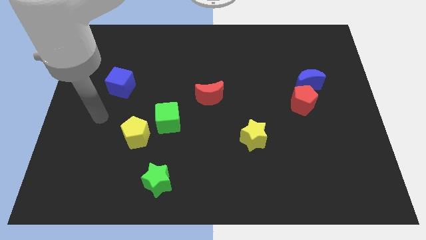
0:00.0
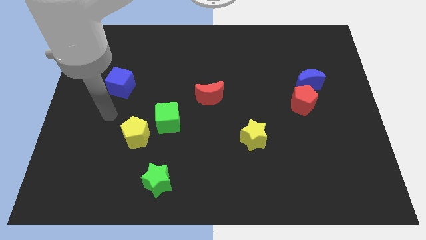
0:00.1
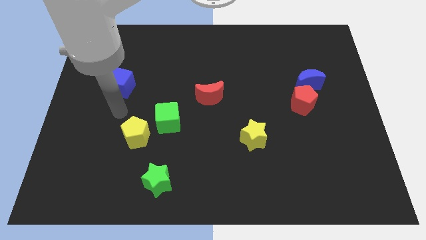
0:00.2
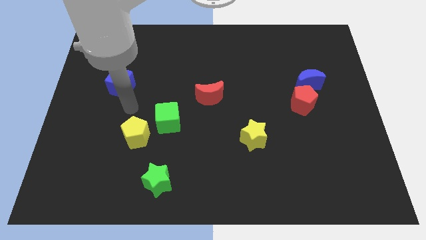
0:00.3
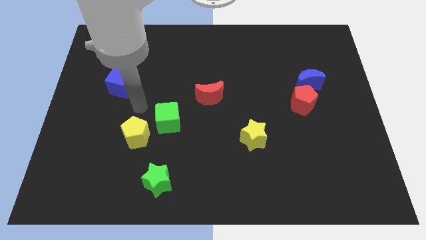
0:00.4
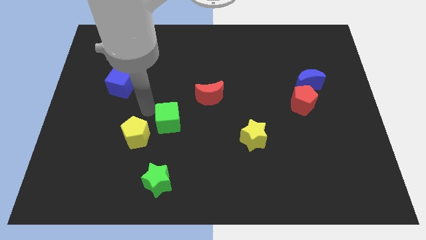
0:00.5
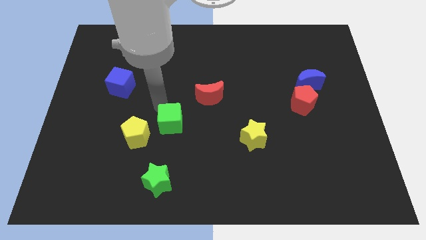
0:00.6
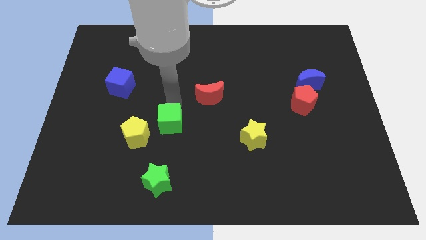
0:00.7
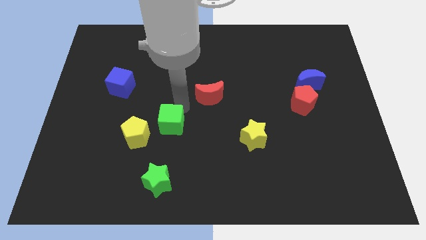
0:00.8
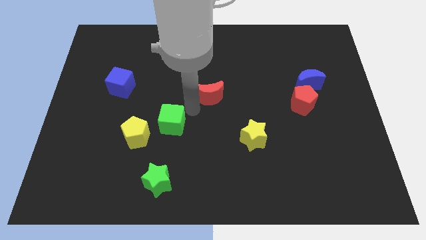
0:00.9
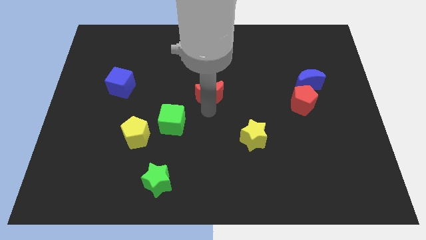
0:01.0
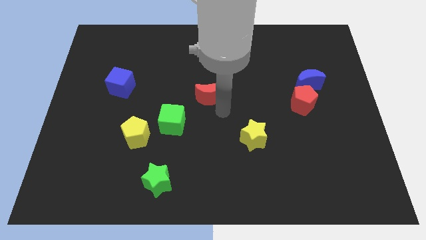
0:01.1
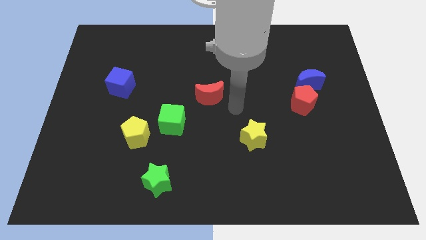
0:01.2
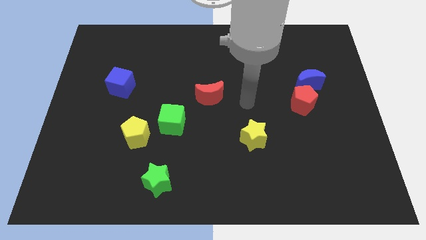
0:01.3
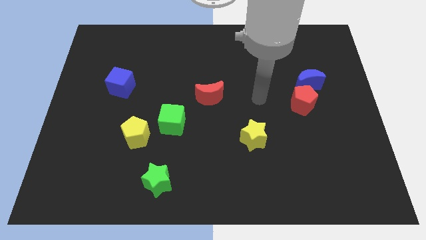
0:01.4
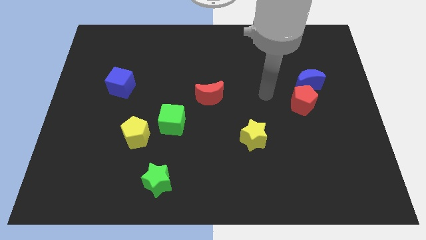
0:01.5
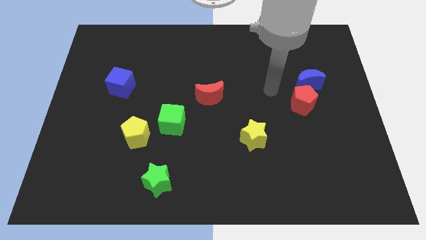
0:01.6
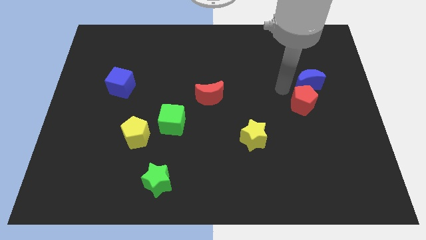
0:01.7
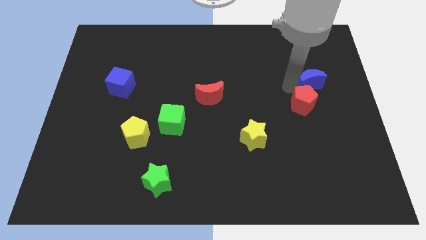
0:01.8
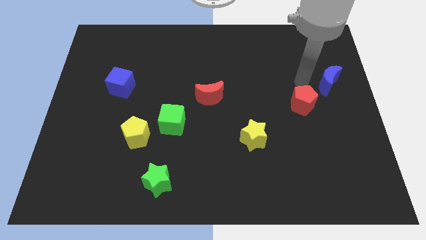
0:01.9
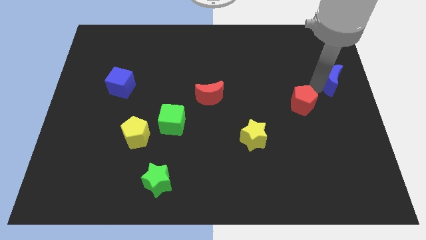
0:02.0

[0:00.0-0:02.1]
pull the red pentagon apart from the blue moon

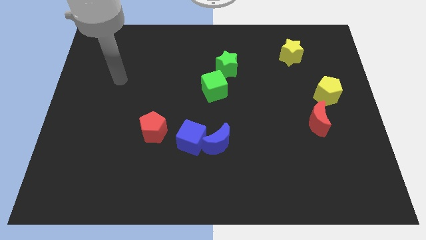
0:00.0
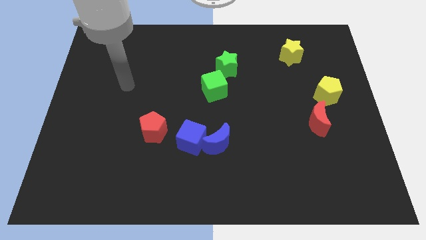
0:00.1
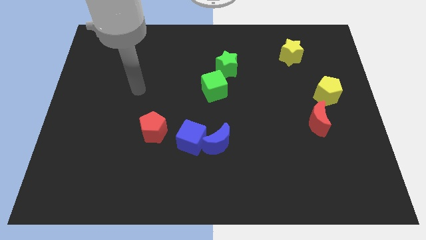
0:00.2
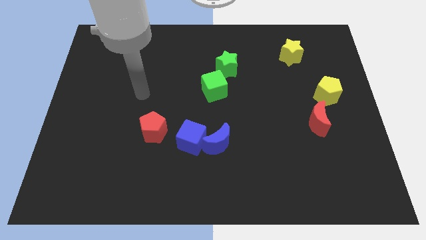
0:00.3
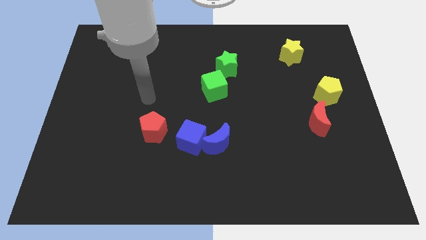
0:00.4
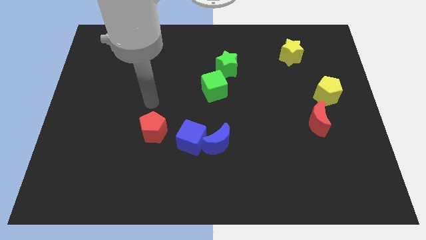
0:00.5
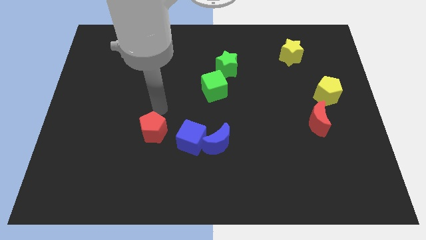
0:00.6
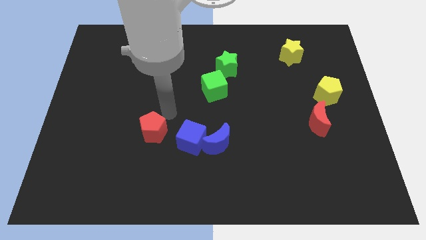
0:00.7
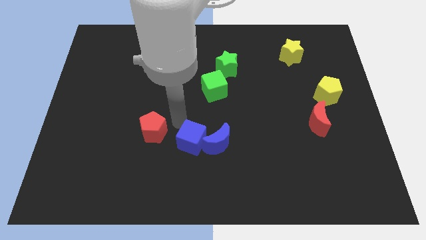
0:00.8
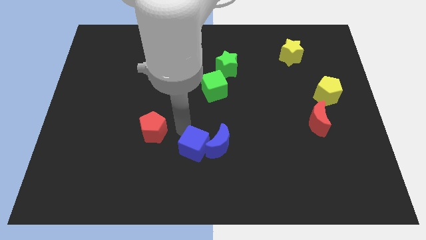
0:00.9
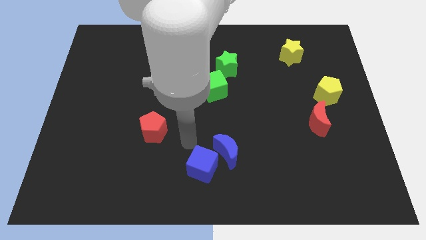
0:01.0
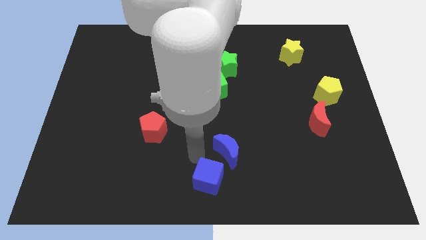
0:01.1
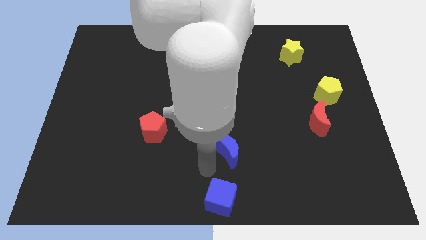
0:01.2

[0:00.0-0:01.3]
separate the blue moon from the blue cube

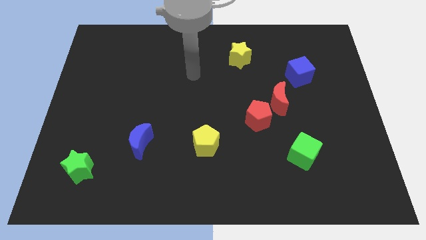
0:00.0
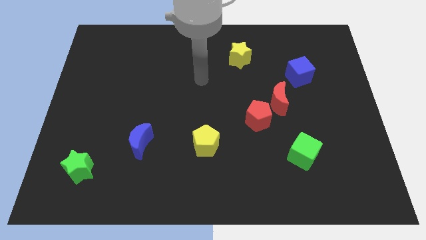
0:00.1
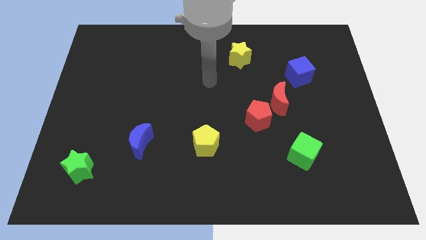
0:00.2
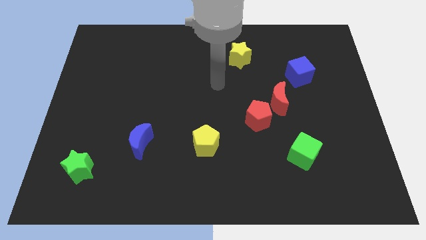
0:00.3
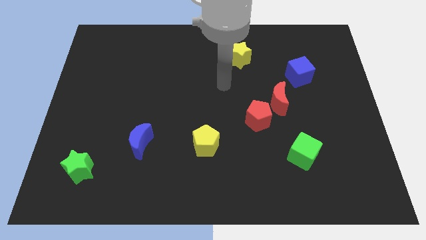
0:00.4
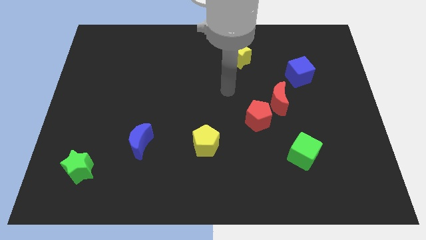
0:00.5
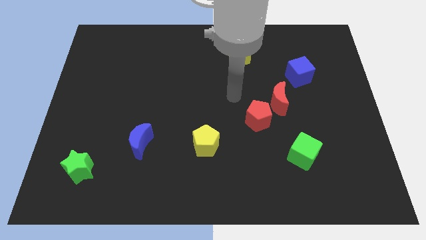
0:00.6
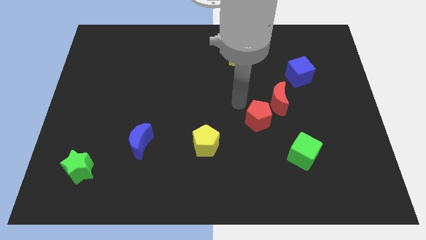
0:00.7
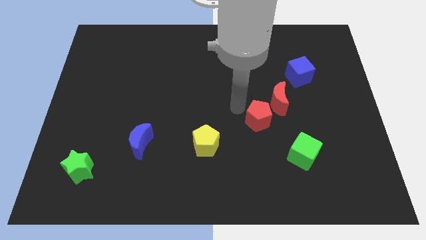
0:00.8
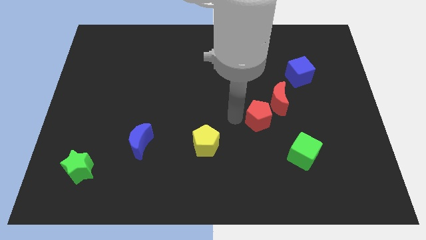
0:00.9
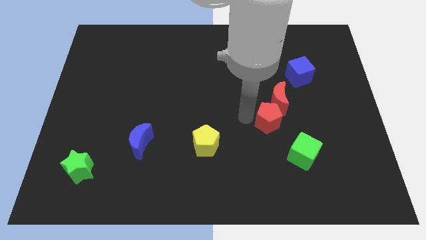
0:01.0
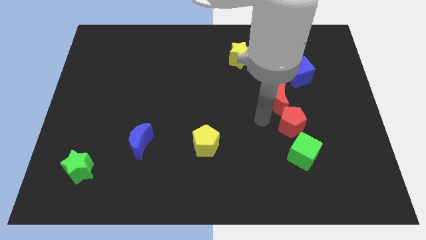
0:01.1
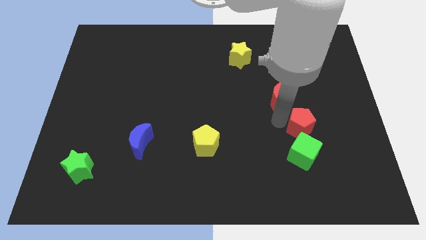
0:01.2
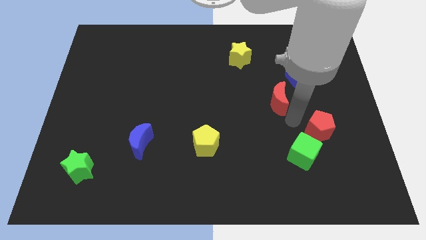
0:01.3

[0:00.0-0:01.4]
move the red moon away from the red pentagon

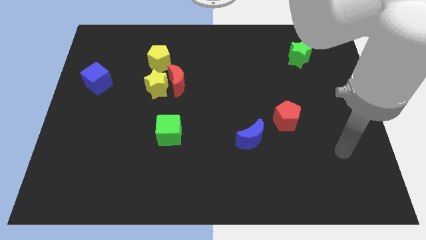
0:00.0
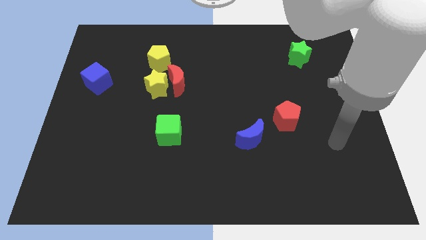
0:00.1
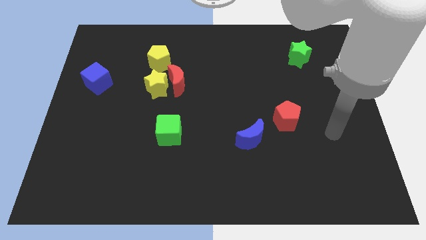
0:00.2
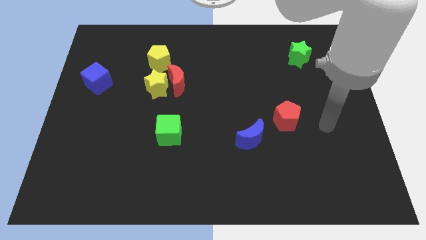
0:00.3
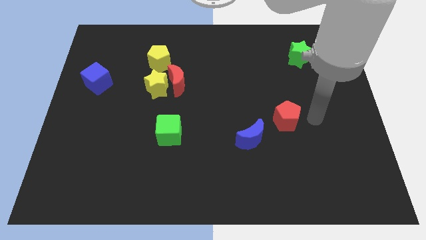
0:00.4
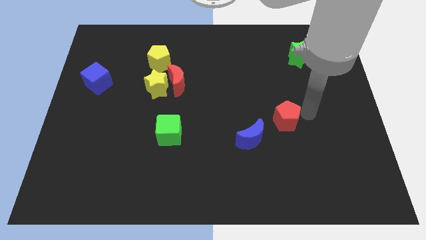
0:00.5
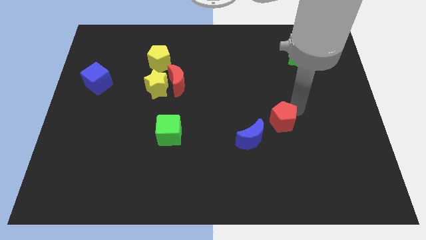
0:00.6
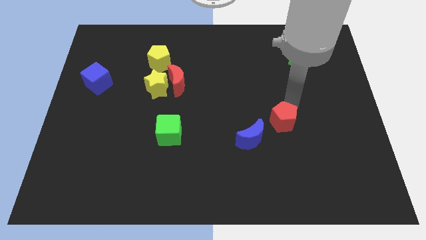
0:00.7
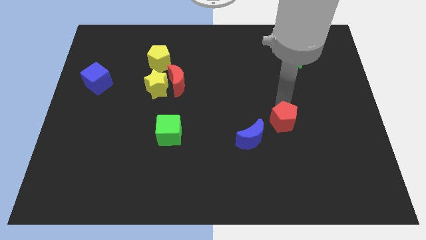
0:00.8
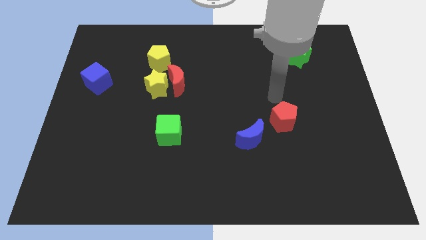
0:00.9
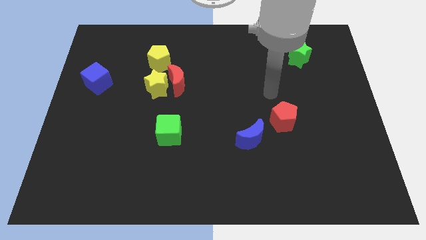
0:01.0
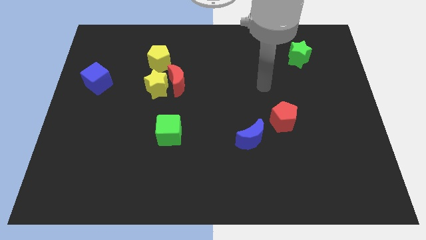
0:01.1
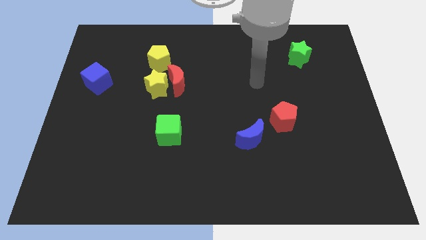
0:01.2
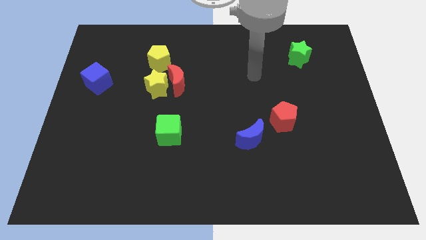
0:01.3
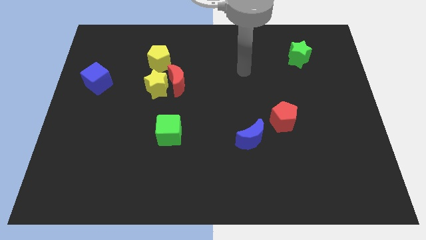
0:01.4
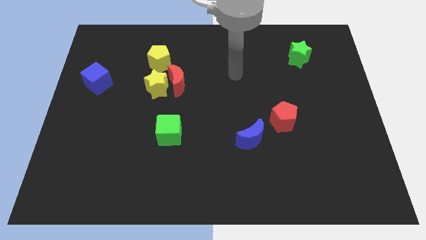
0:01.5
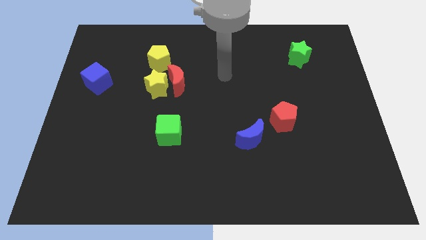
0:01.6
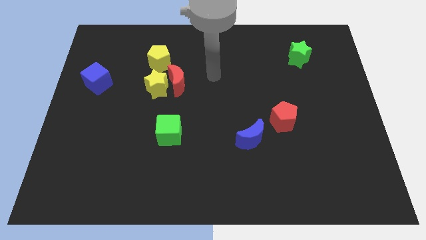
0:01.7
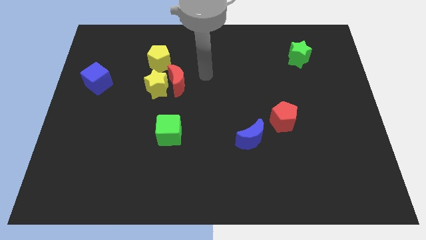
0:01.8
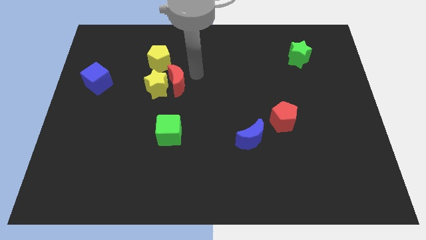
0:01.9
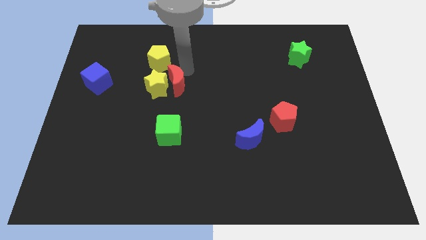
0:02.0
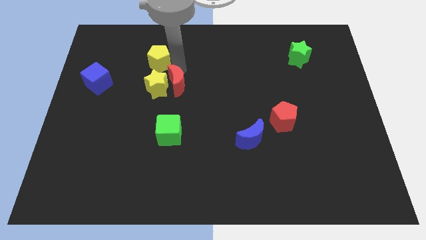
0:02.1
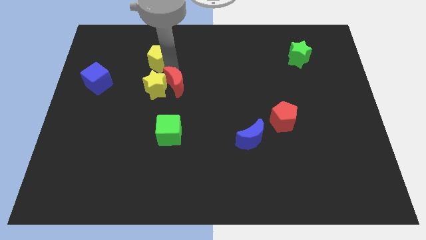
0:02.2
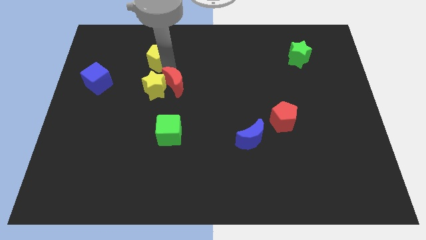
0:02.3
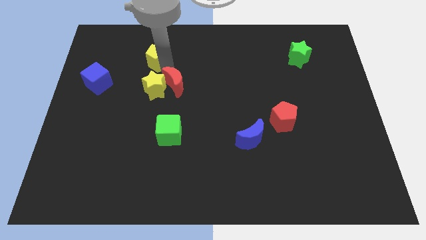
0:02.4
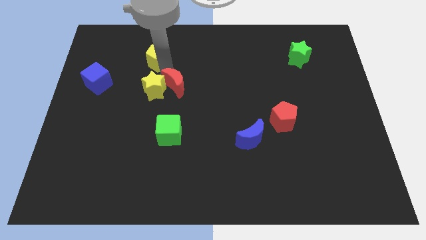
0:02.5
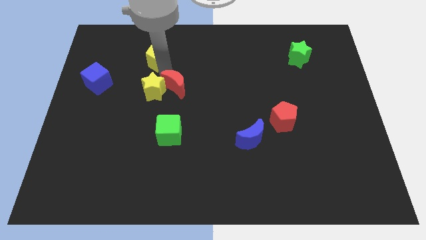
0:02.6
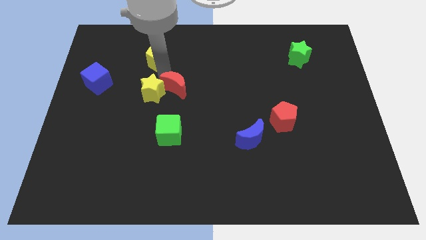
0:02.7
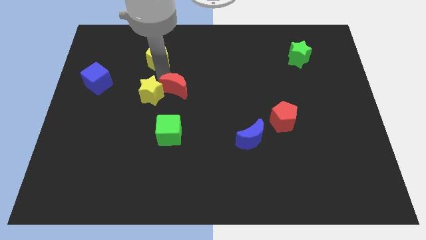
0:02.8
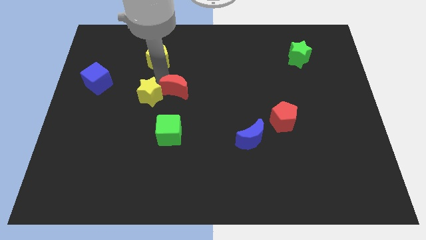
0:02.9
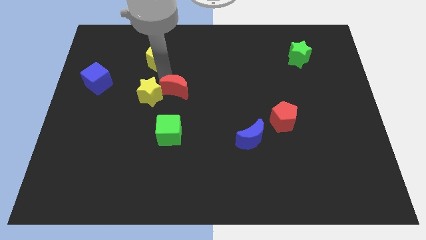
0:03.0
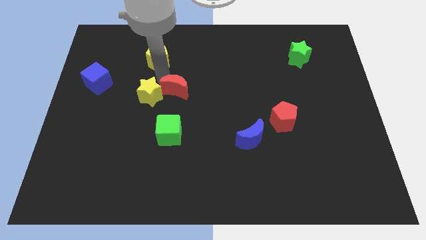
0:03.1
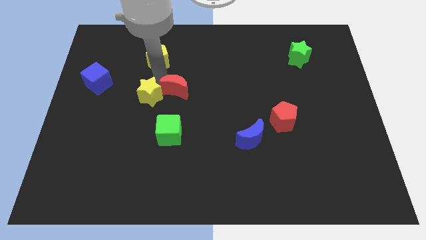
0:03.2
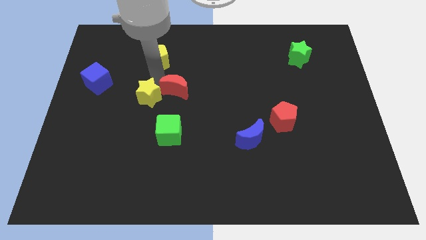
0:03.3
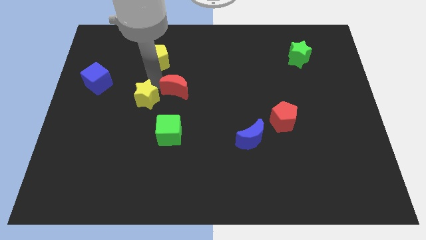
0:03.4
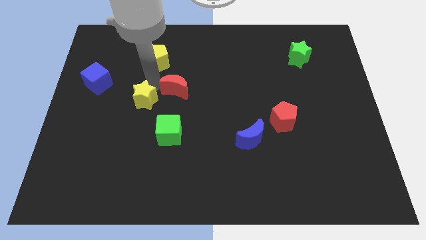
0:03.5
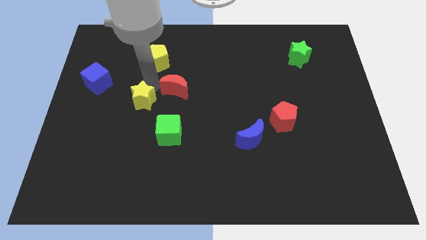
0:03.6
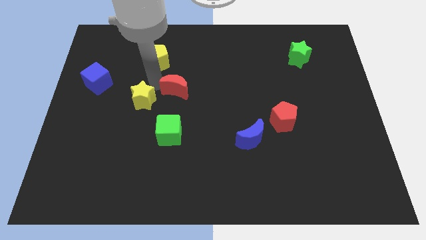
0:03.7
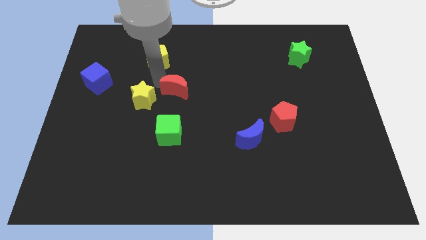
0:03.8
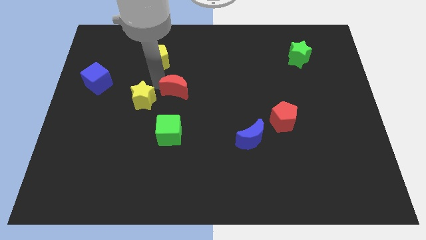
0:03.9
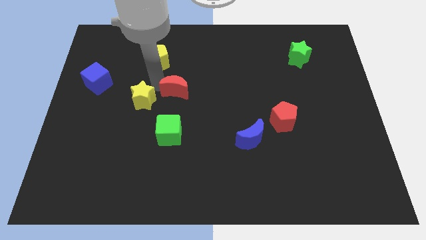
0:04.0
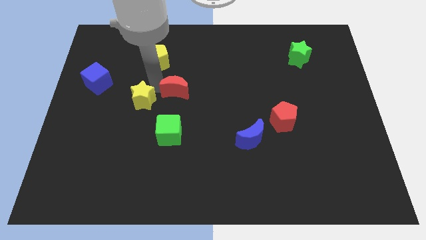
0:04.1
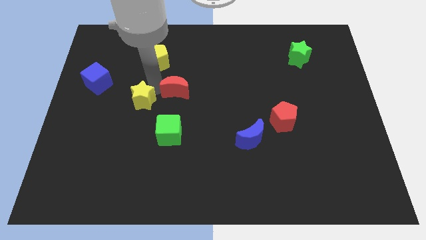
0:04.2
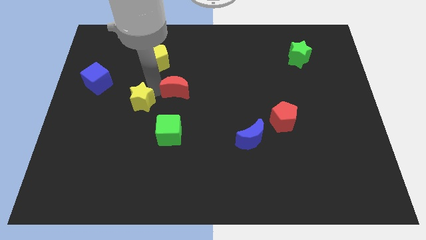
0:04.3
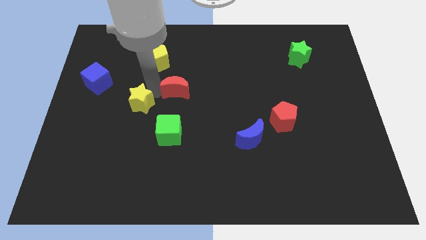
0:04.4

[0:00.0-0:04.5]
move the yellow star away from the red moon and yellow pentagon
